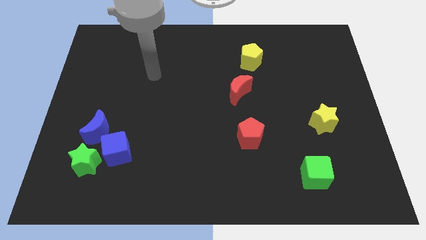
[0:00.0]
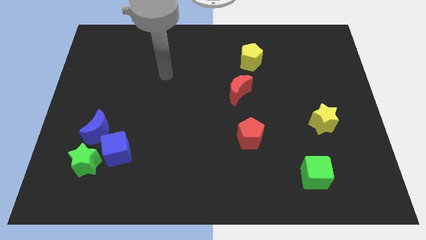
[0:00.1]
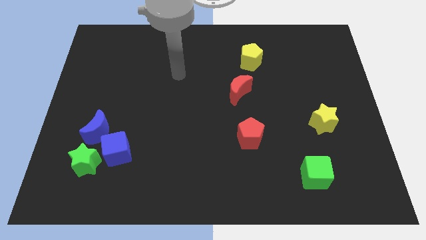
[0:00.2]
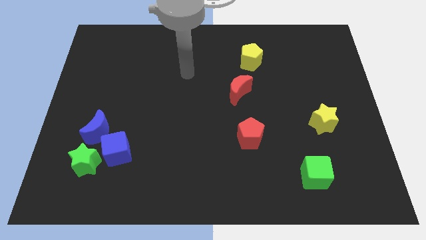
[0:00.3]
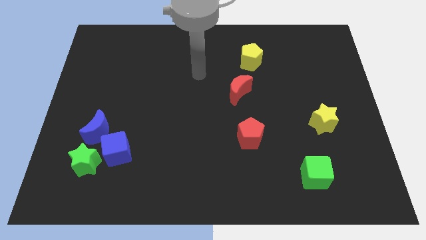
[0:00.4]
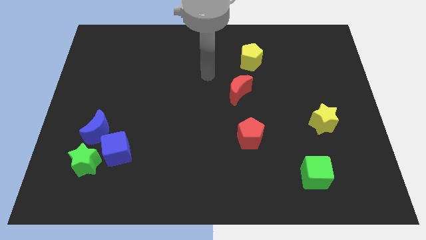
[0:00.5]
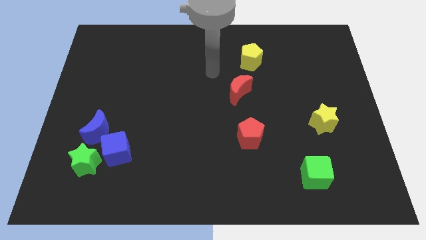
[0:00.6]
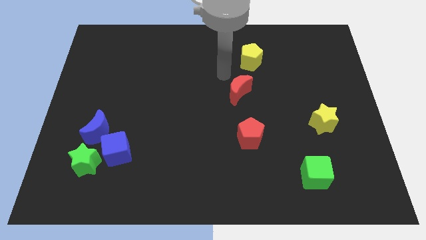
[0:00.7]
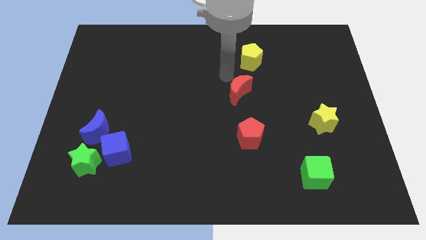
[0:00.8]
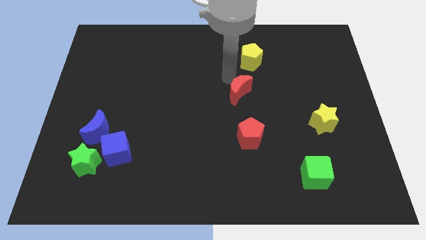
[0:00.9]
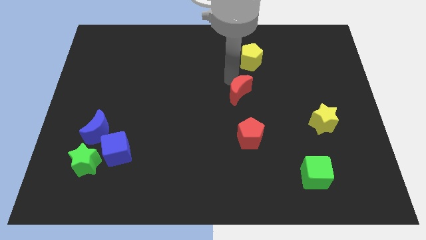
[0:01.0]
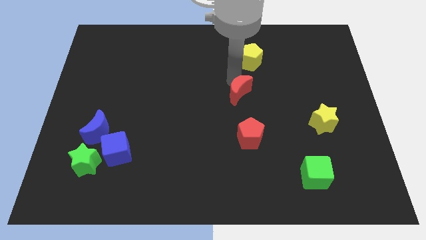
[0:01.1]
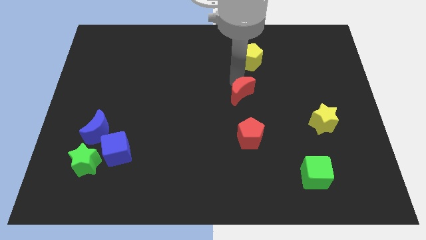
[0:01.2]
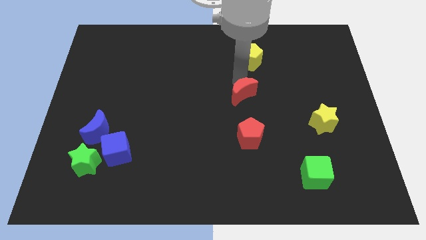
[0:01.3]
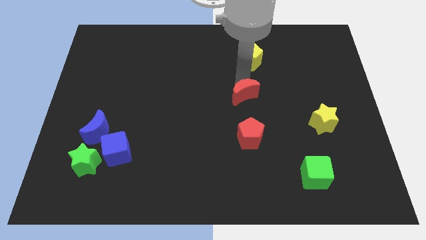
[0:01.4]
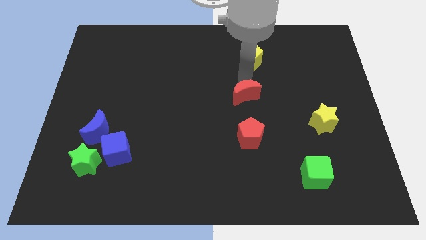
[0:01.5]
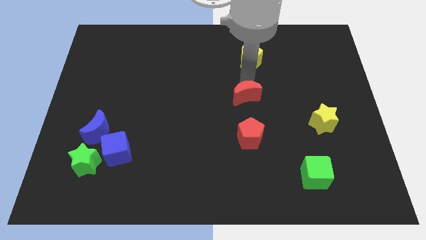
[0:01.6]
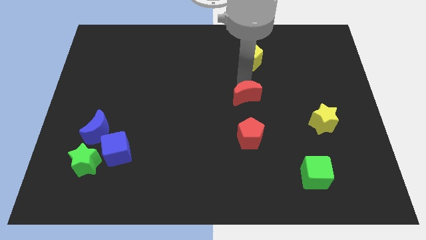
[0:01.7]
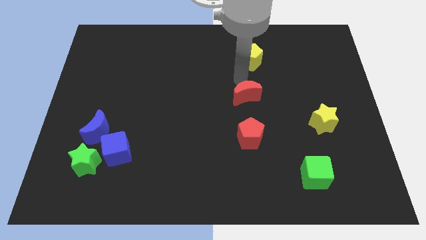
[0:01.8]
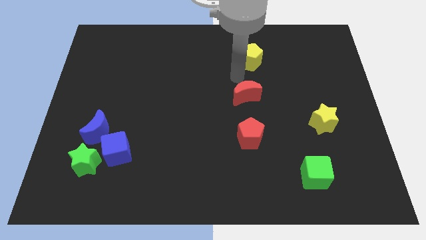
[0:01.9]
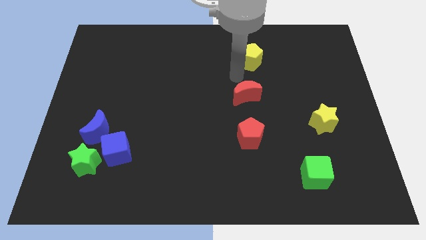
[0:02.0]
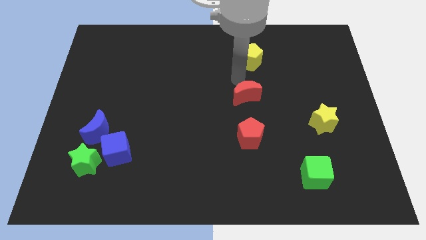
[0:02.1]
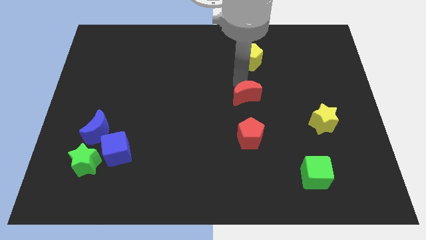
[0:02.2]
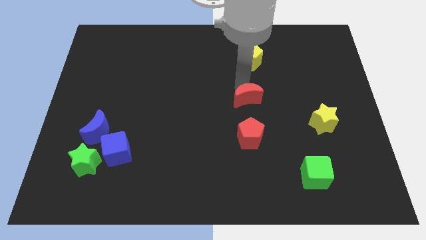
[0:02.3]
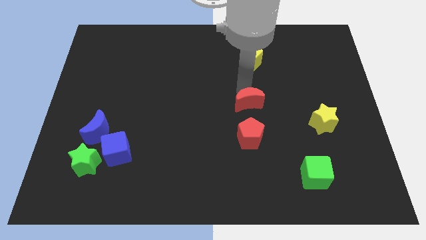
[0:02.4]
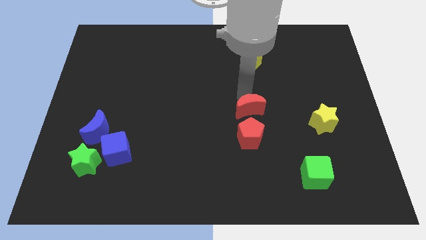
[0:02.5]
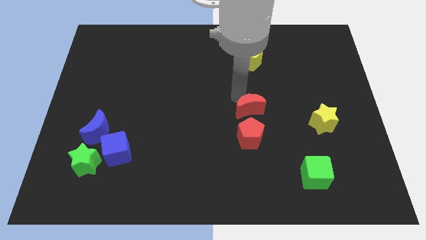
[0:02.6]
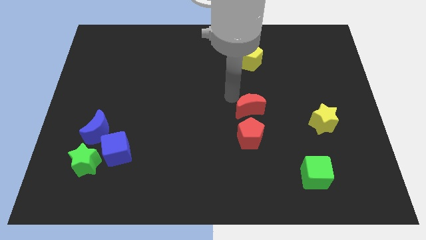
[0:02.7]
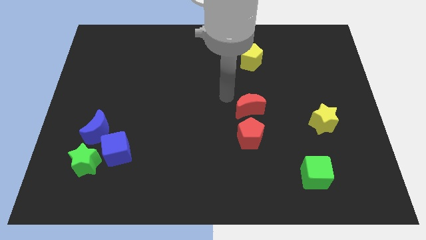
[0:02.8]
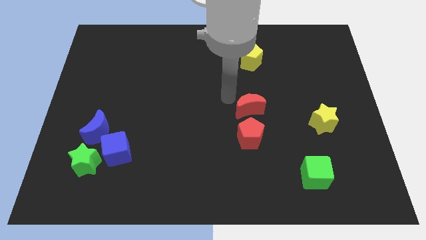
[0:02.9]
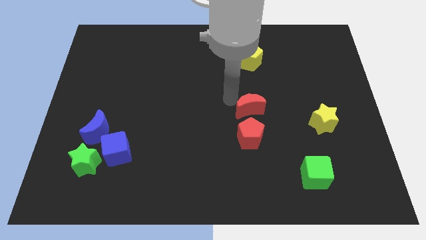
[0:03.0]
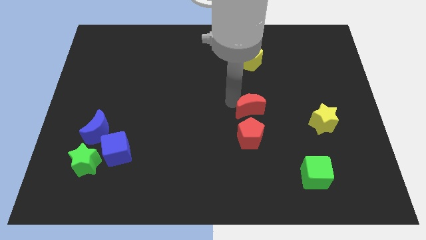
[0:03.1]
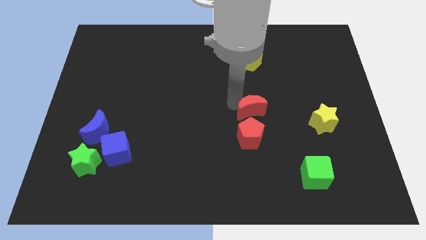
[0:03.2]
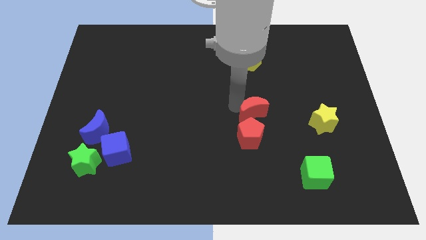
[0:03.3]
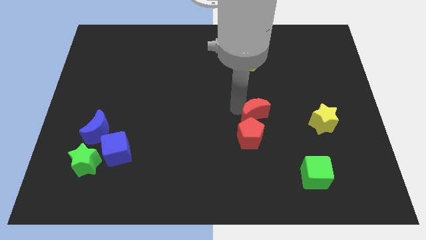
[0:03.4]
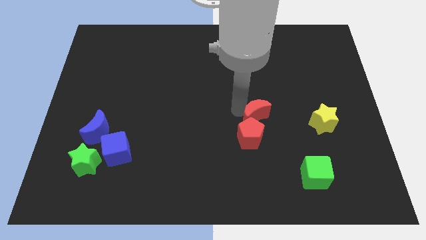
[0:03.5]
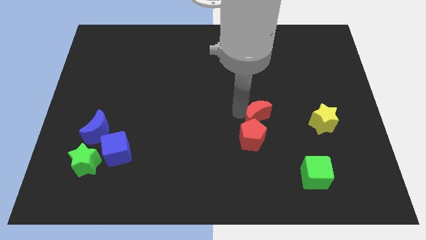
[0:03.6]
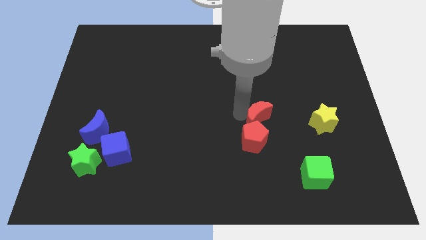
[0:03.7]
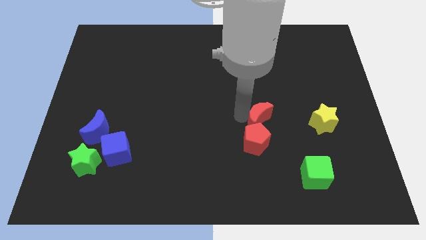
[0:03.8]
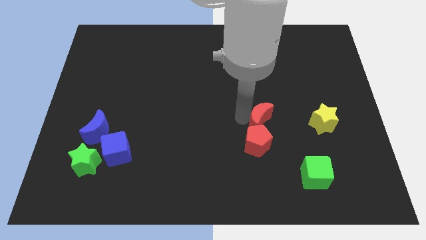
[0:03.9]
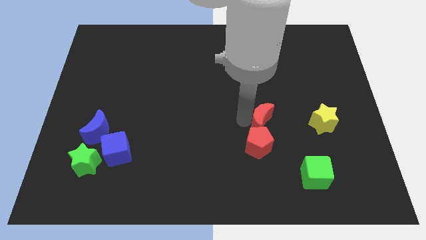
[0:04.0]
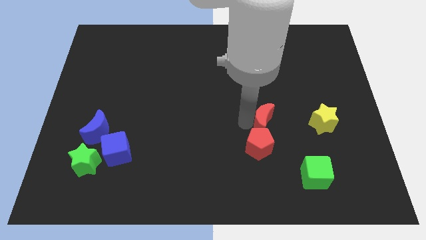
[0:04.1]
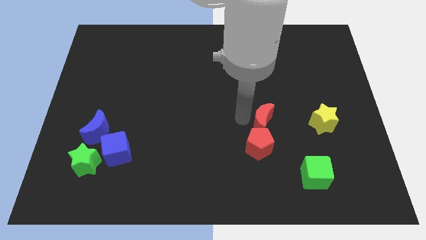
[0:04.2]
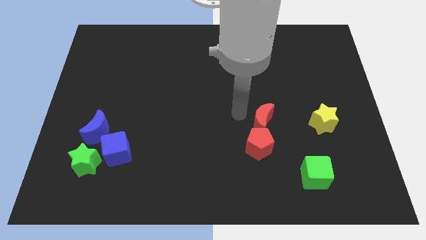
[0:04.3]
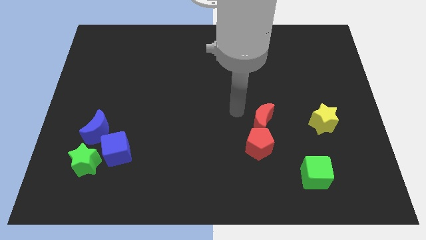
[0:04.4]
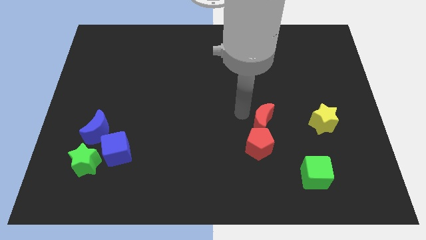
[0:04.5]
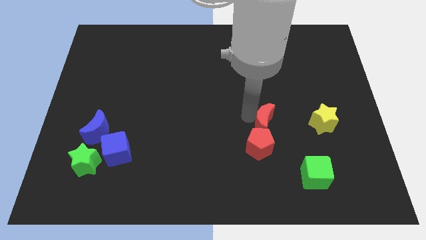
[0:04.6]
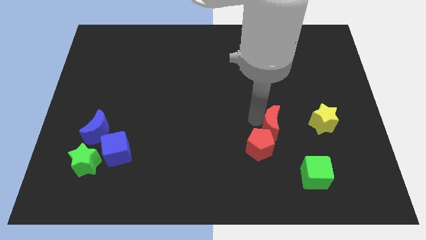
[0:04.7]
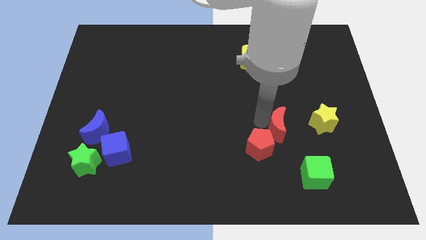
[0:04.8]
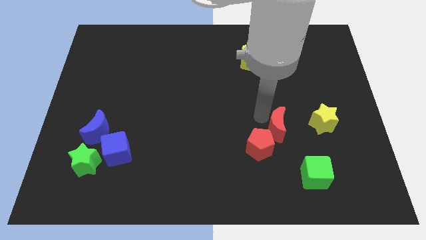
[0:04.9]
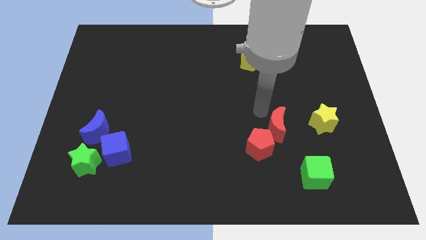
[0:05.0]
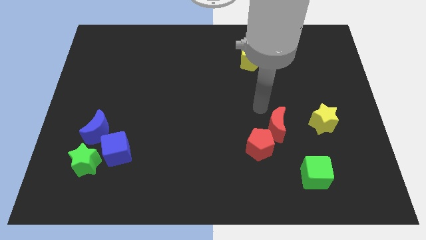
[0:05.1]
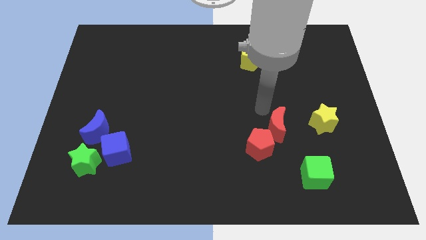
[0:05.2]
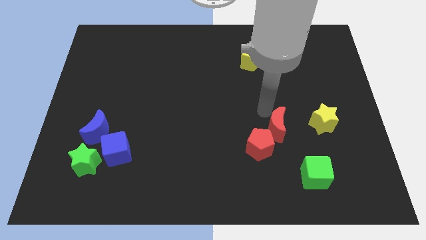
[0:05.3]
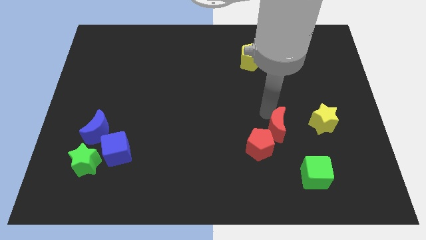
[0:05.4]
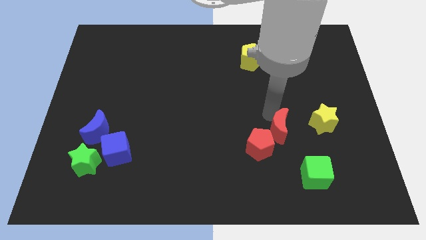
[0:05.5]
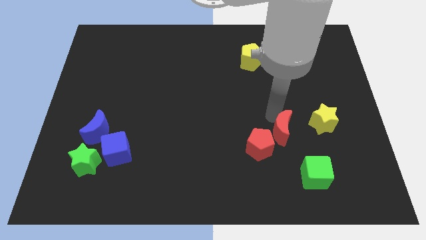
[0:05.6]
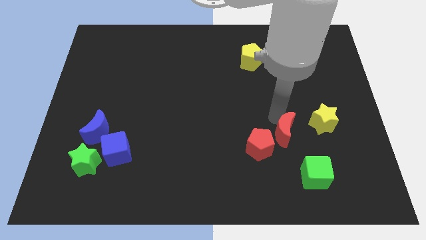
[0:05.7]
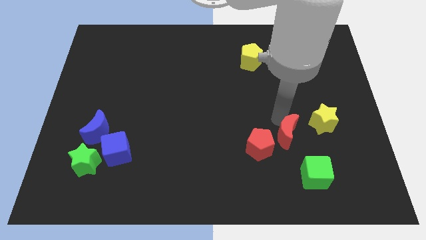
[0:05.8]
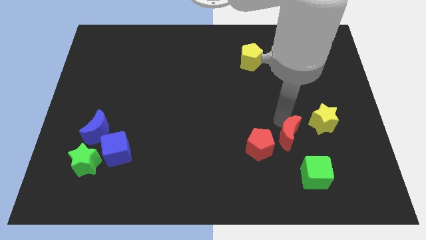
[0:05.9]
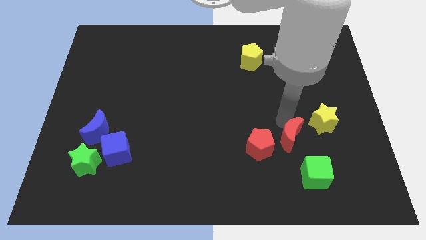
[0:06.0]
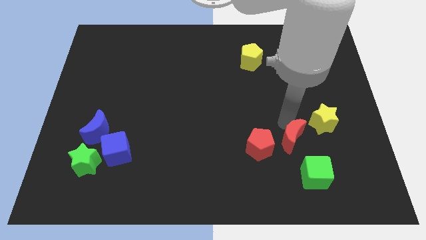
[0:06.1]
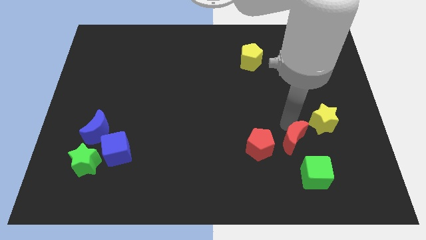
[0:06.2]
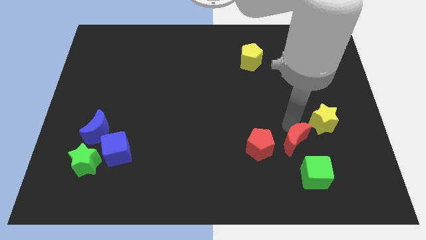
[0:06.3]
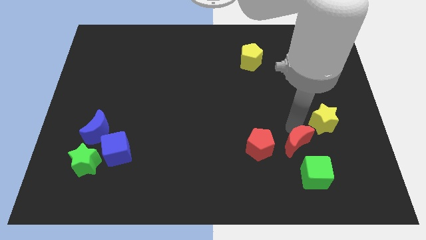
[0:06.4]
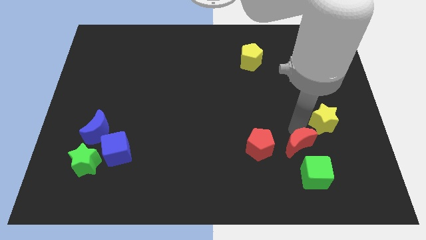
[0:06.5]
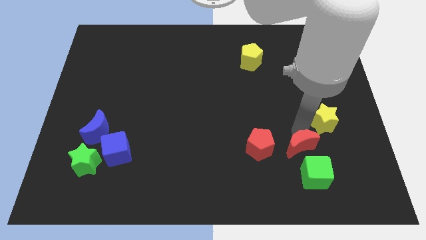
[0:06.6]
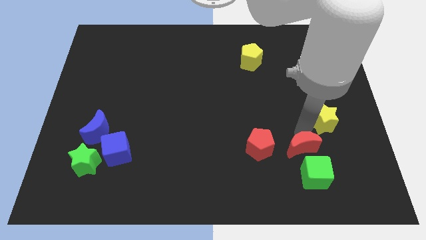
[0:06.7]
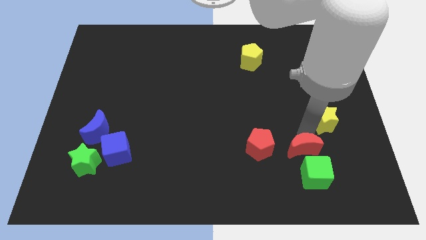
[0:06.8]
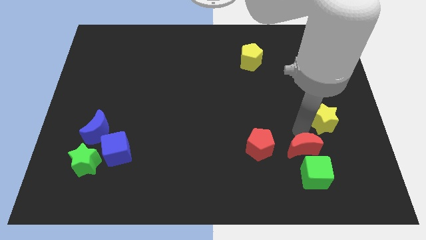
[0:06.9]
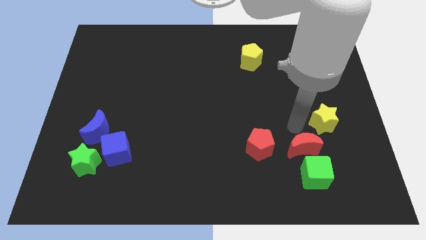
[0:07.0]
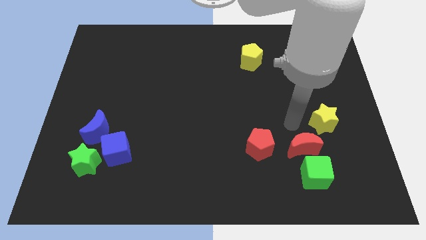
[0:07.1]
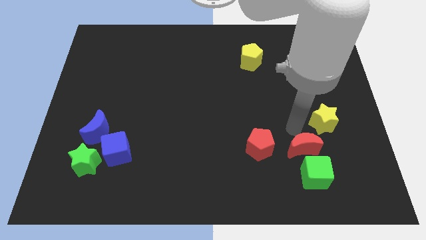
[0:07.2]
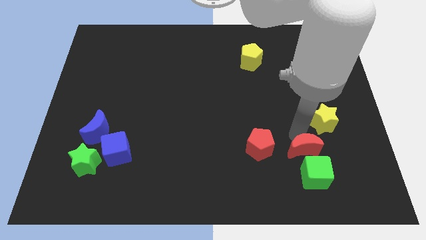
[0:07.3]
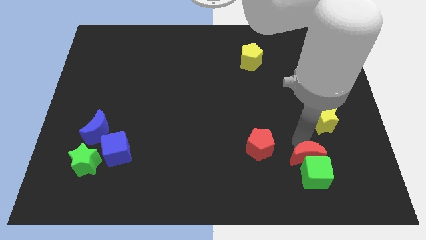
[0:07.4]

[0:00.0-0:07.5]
push the red moon towards the green cube
